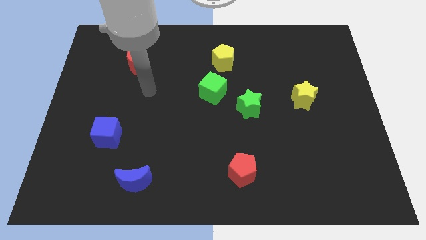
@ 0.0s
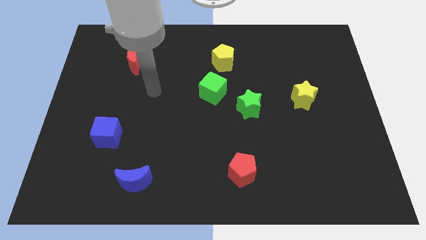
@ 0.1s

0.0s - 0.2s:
separate the green cube from the green star

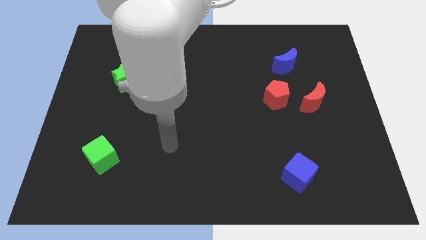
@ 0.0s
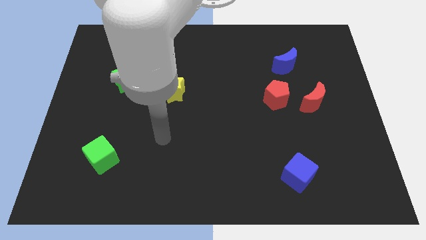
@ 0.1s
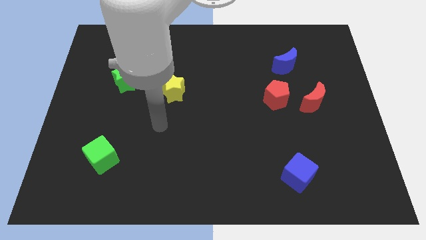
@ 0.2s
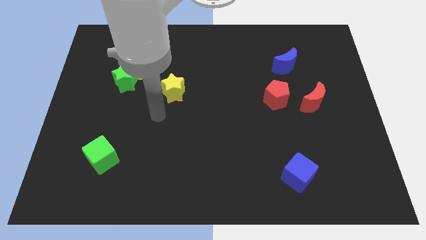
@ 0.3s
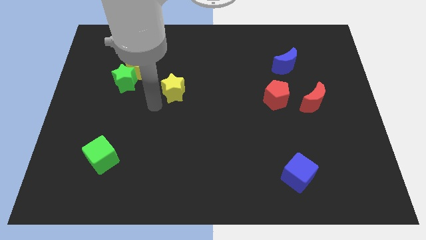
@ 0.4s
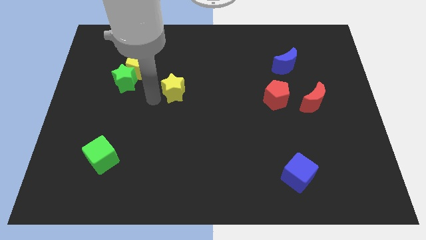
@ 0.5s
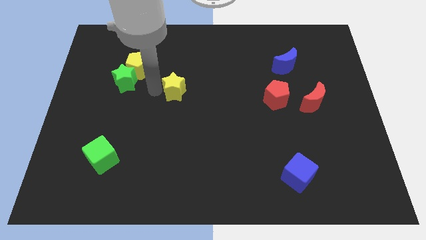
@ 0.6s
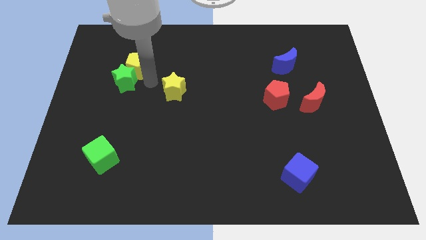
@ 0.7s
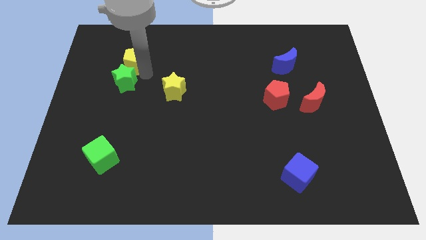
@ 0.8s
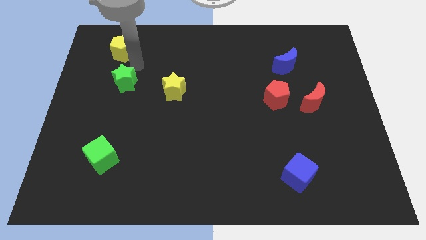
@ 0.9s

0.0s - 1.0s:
move the green star away from the yellow pentagon

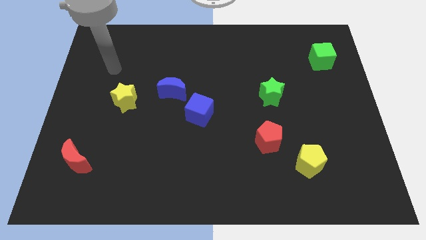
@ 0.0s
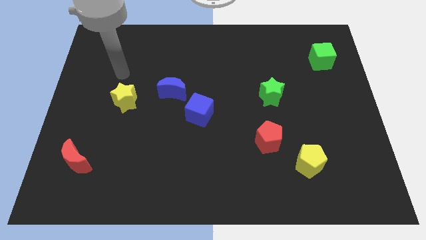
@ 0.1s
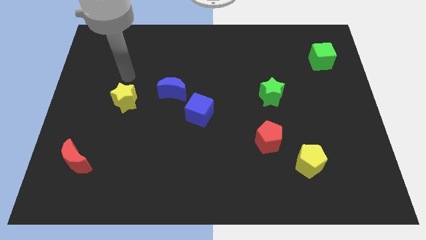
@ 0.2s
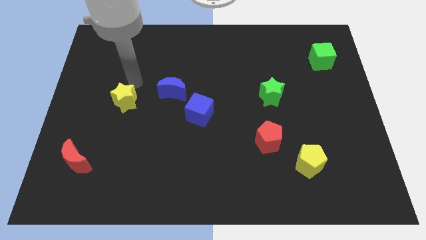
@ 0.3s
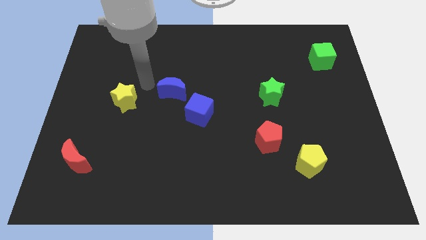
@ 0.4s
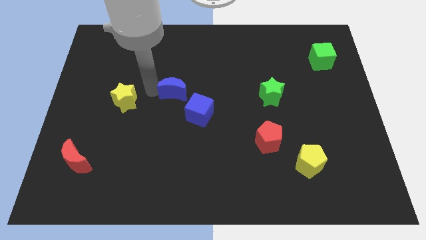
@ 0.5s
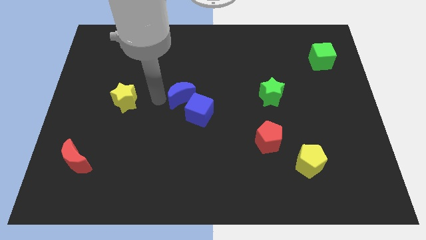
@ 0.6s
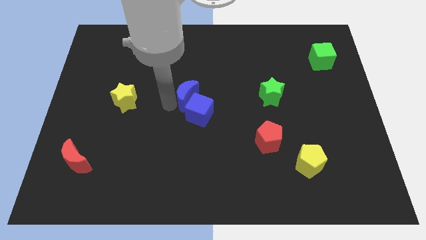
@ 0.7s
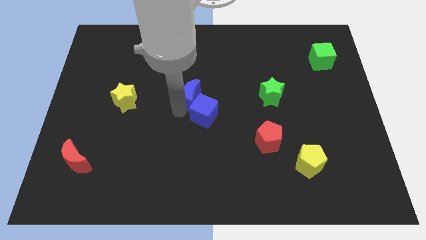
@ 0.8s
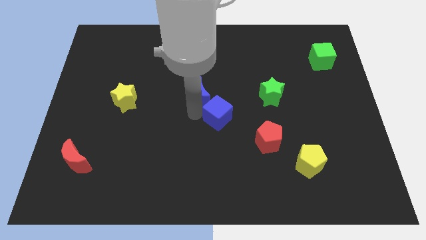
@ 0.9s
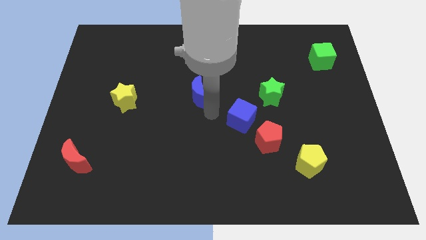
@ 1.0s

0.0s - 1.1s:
pull the blue moon apart from the blue cube

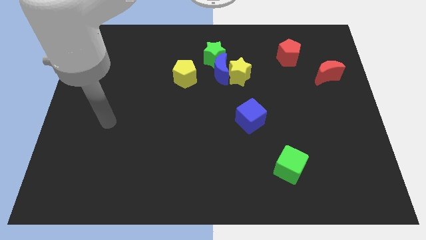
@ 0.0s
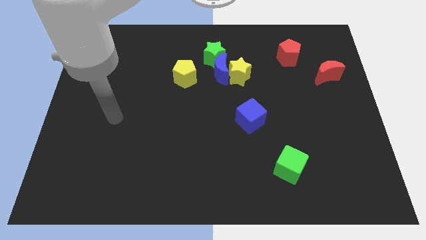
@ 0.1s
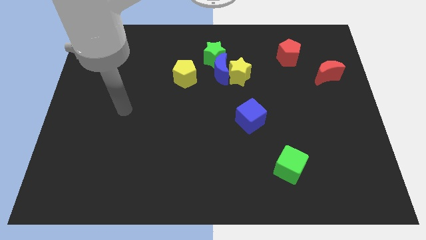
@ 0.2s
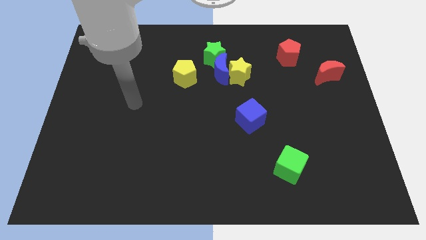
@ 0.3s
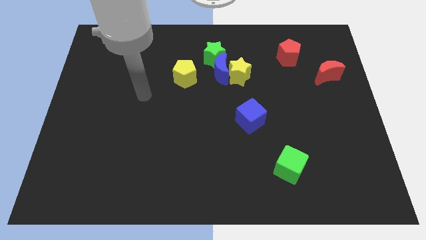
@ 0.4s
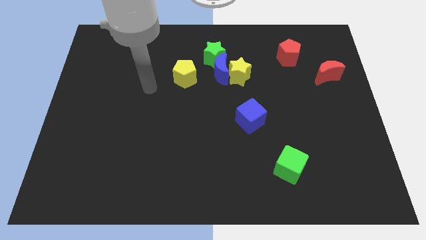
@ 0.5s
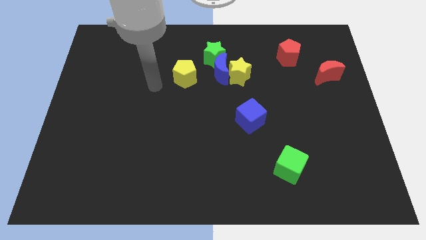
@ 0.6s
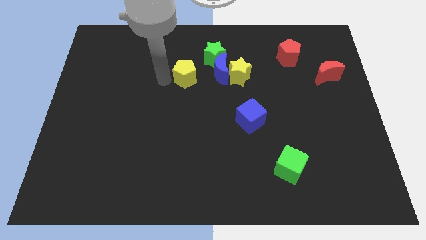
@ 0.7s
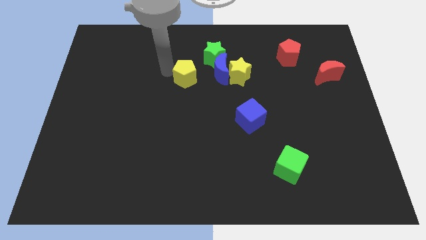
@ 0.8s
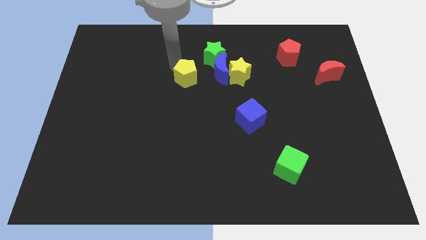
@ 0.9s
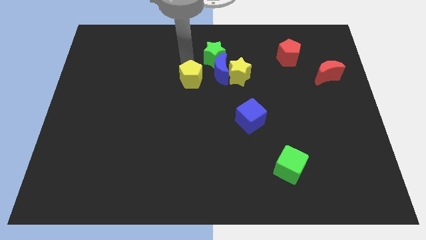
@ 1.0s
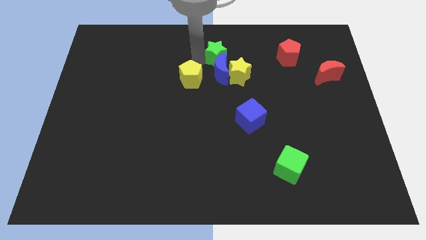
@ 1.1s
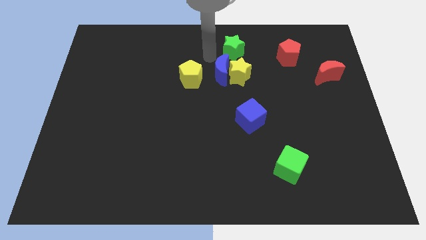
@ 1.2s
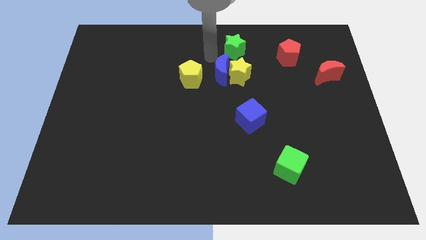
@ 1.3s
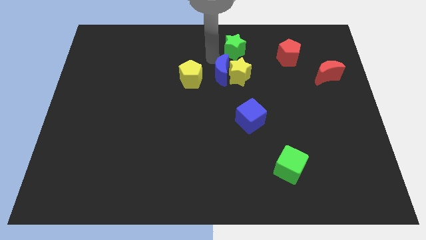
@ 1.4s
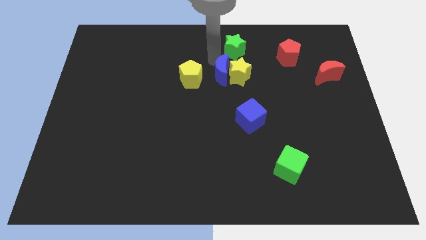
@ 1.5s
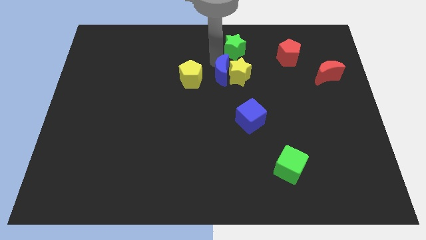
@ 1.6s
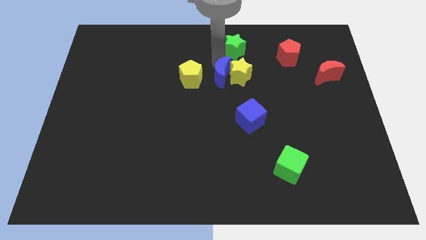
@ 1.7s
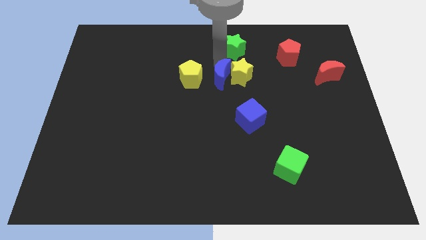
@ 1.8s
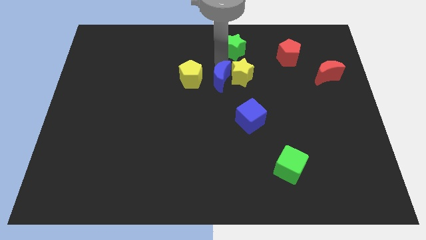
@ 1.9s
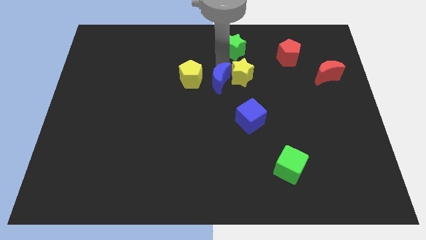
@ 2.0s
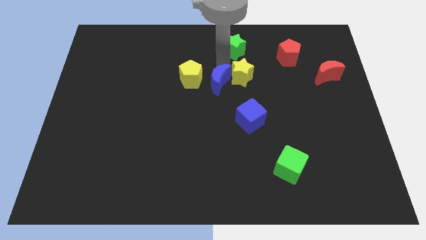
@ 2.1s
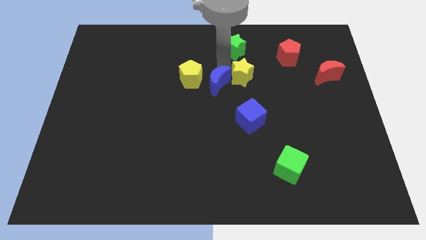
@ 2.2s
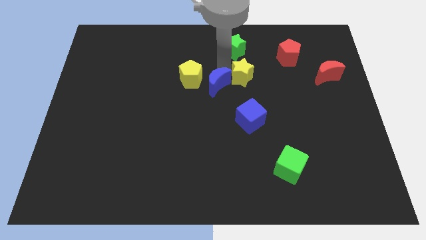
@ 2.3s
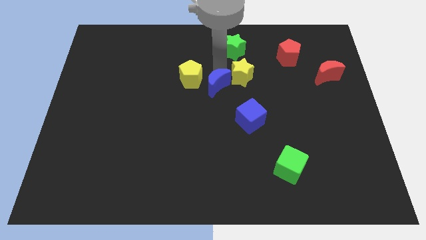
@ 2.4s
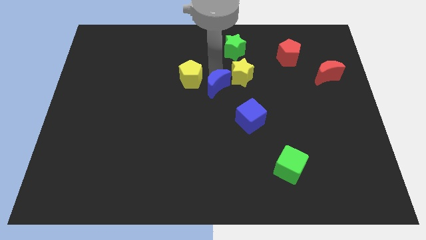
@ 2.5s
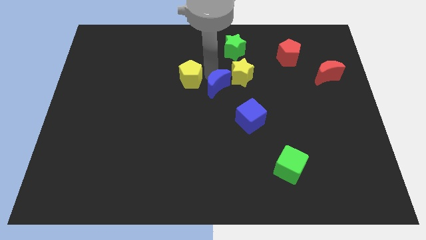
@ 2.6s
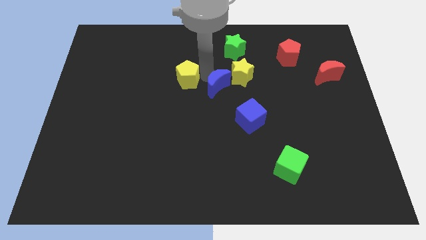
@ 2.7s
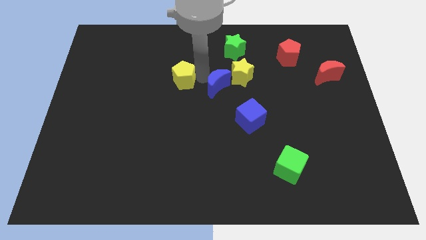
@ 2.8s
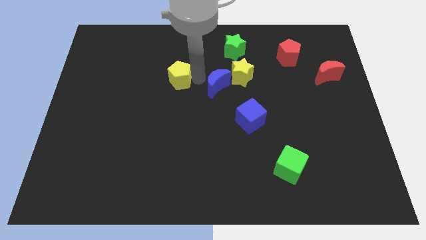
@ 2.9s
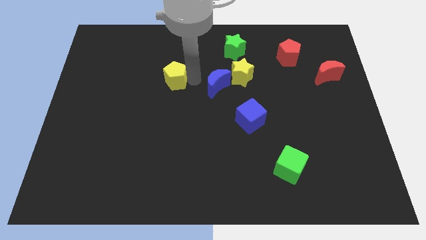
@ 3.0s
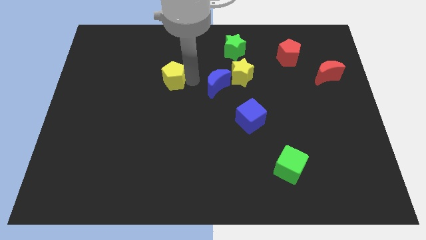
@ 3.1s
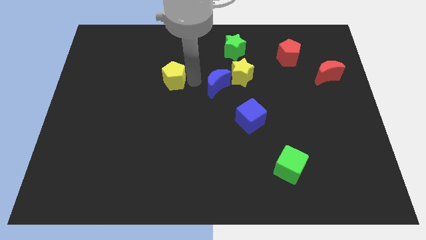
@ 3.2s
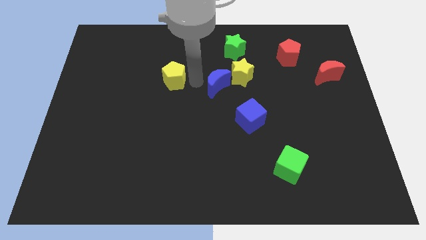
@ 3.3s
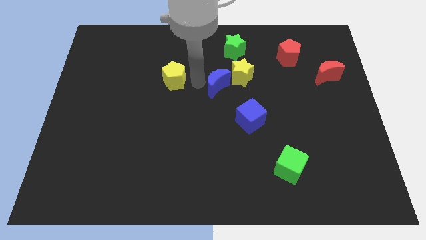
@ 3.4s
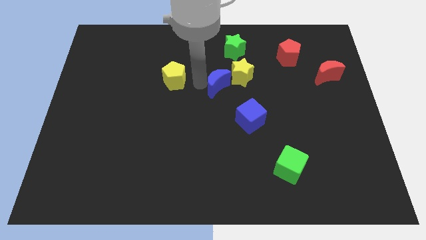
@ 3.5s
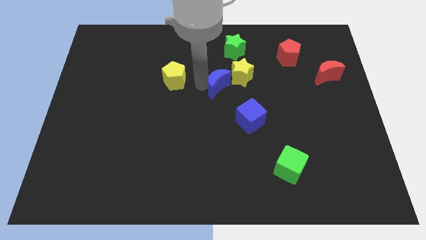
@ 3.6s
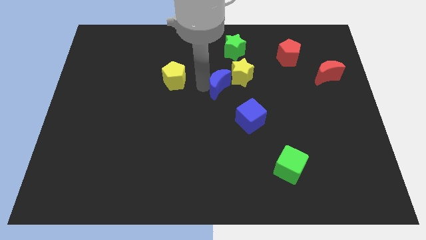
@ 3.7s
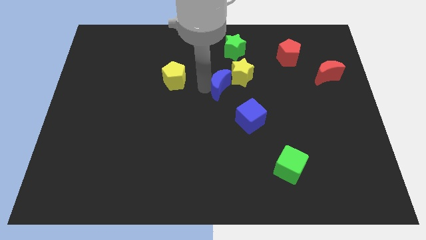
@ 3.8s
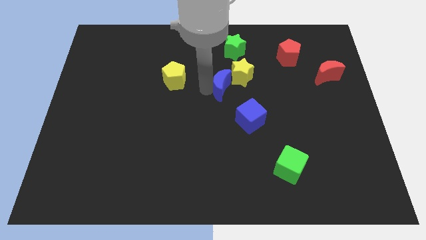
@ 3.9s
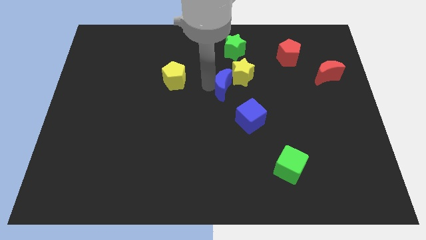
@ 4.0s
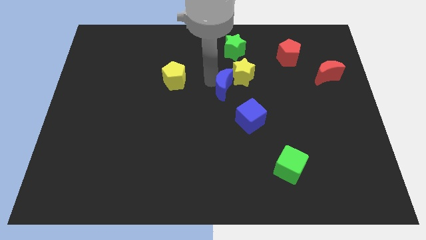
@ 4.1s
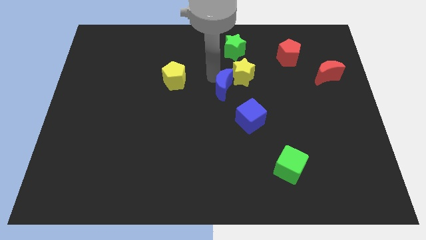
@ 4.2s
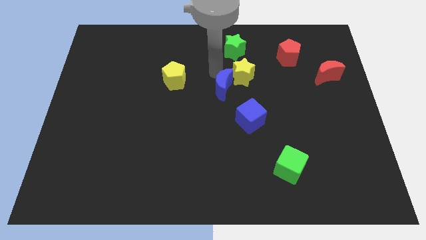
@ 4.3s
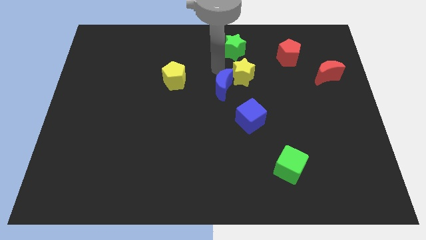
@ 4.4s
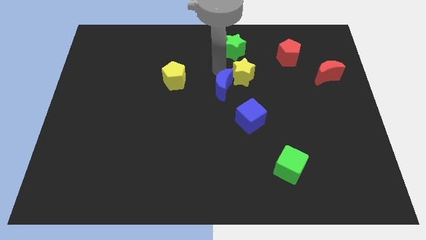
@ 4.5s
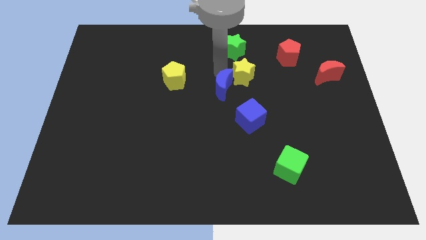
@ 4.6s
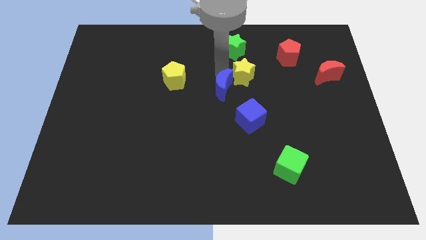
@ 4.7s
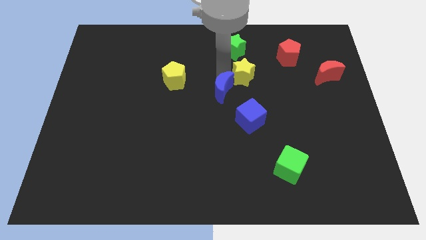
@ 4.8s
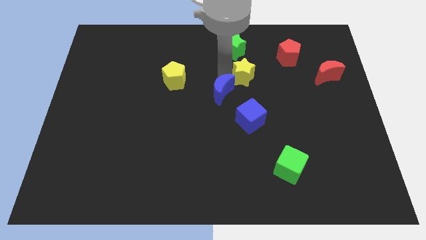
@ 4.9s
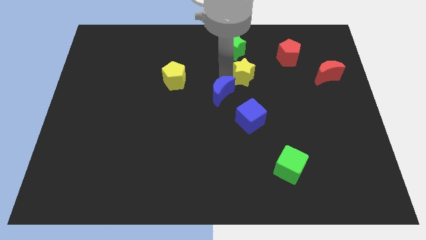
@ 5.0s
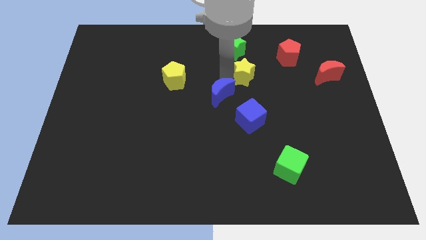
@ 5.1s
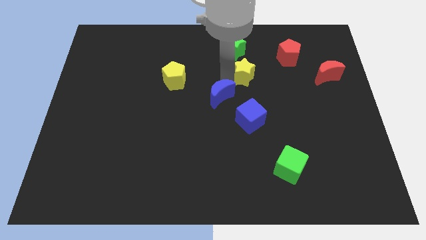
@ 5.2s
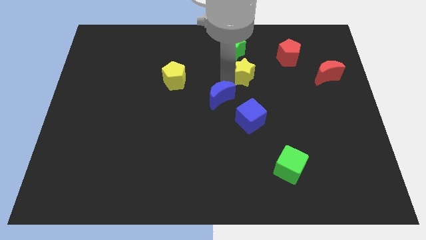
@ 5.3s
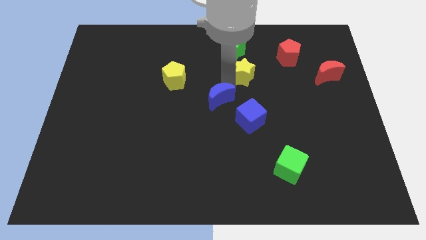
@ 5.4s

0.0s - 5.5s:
pull the blue moon apart from the yellow star, green star, and yellow pentagon

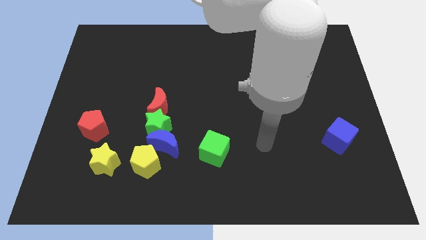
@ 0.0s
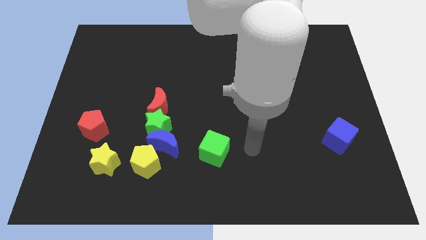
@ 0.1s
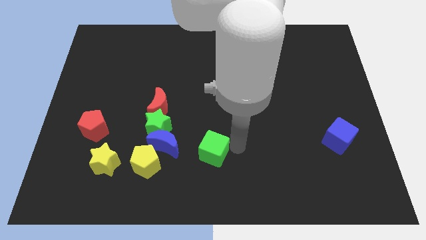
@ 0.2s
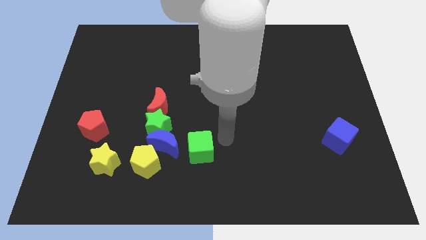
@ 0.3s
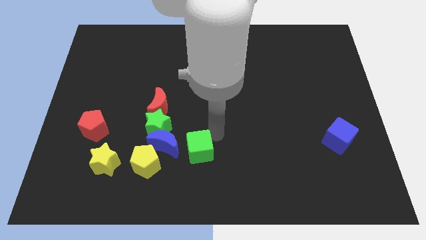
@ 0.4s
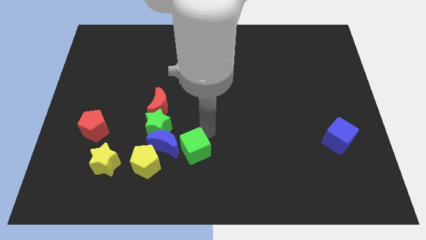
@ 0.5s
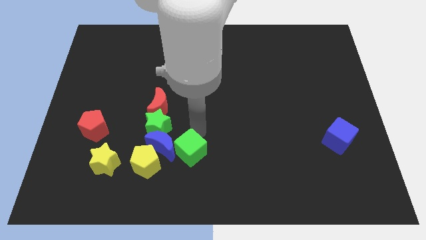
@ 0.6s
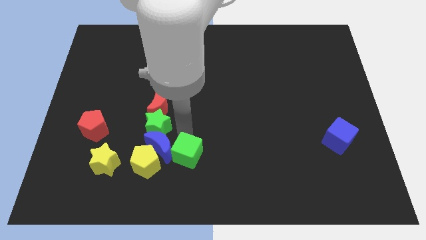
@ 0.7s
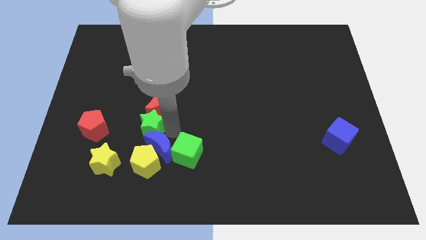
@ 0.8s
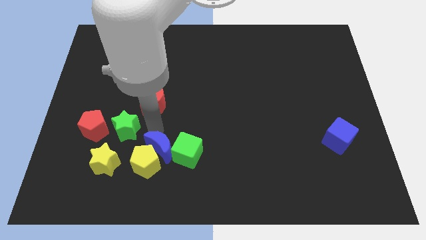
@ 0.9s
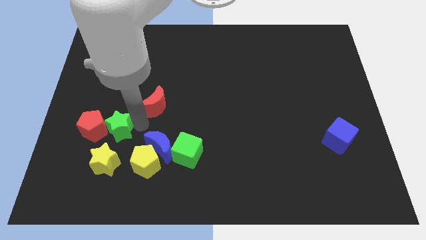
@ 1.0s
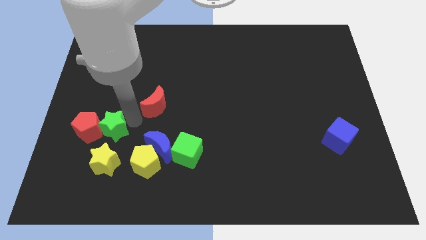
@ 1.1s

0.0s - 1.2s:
move the red moon away from the green star

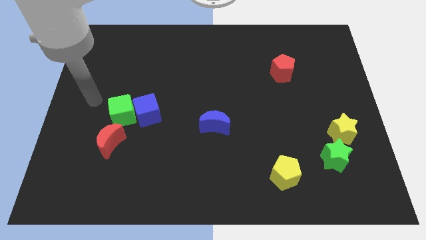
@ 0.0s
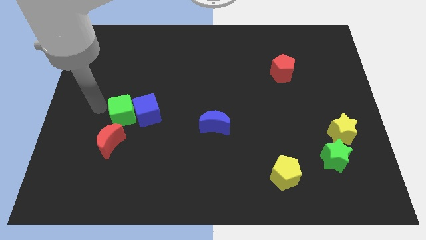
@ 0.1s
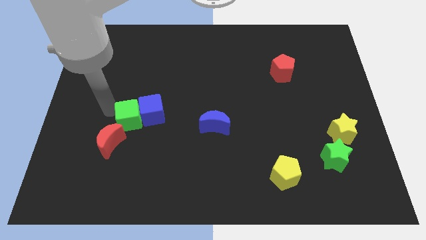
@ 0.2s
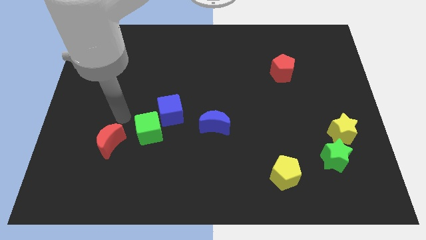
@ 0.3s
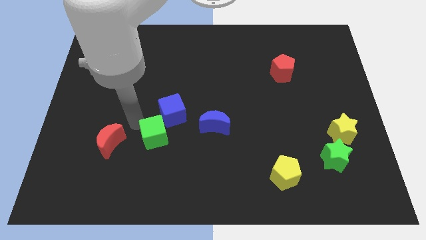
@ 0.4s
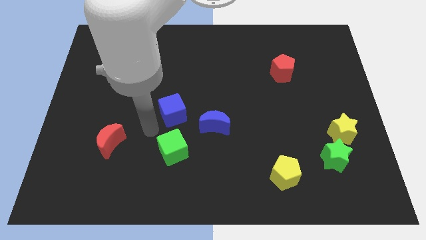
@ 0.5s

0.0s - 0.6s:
separate the blue cube from the green cube
